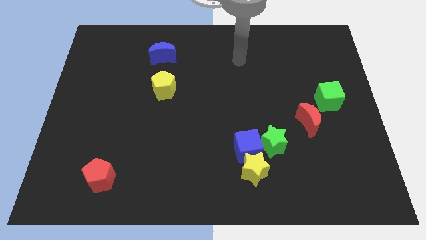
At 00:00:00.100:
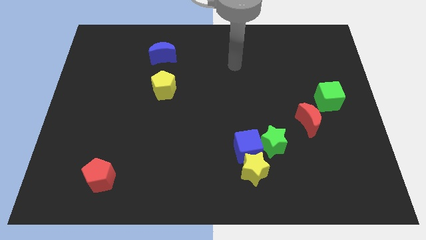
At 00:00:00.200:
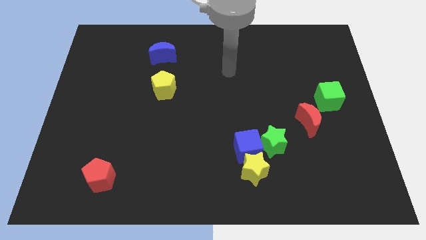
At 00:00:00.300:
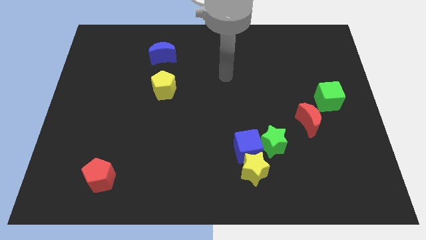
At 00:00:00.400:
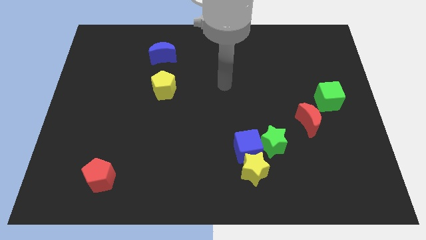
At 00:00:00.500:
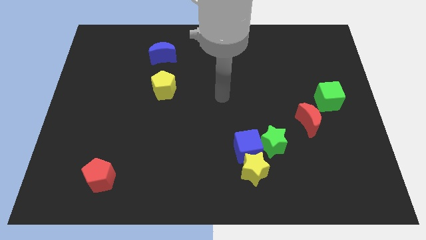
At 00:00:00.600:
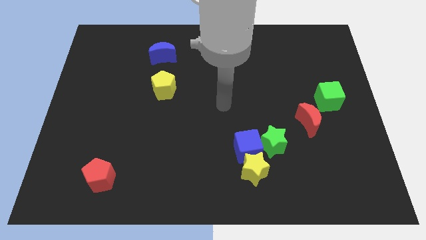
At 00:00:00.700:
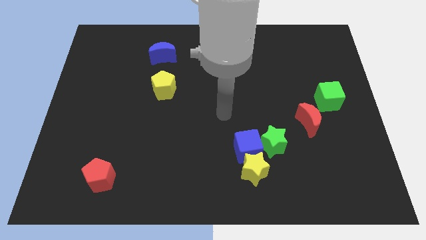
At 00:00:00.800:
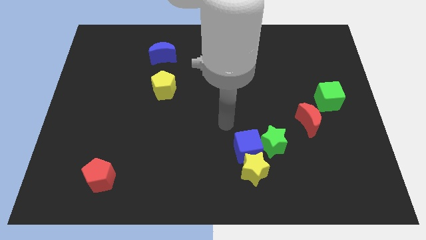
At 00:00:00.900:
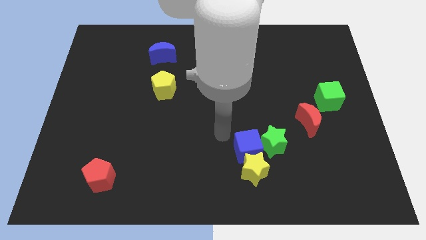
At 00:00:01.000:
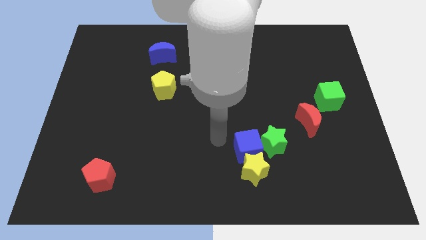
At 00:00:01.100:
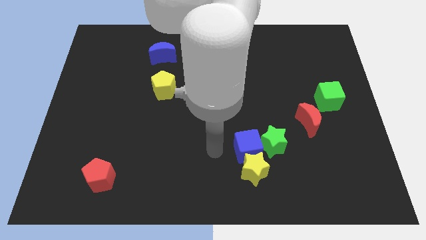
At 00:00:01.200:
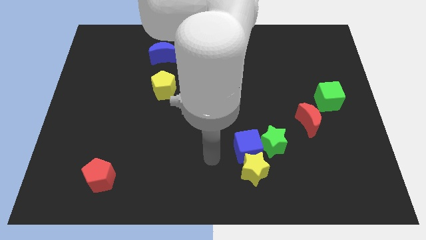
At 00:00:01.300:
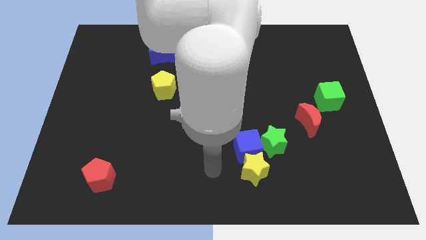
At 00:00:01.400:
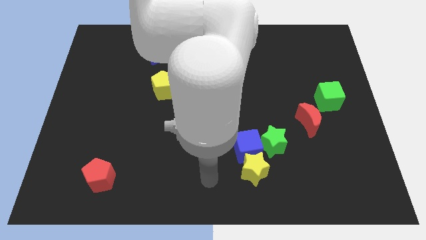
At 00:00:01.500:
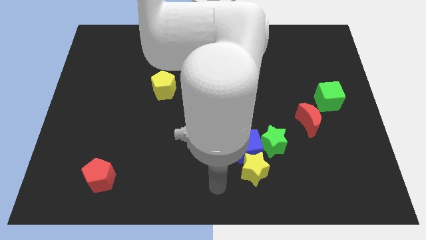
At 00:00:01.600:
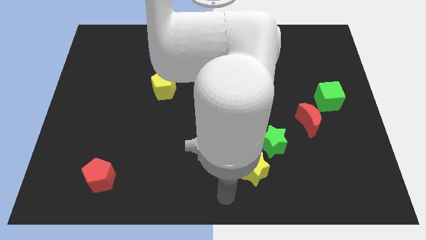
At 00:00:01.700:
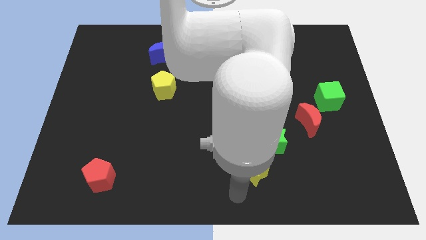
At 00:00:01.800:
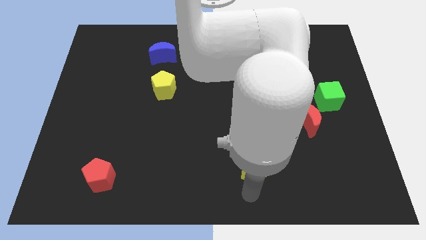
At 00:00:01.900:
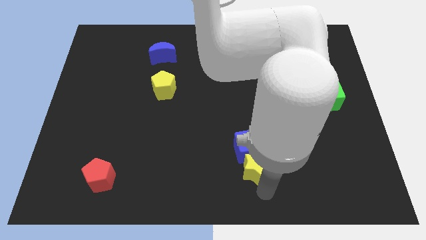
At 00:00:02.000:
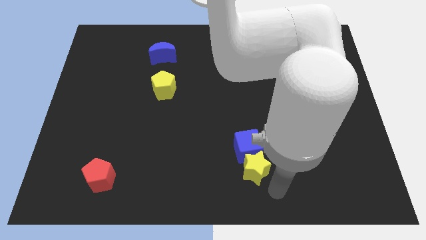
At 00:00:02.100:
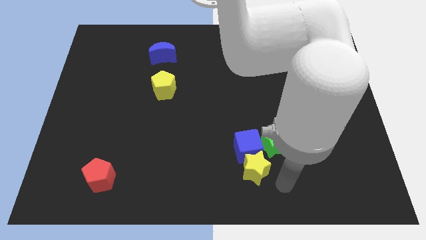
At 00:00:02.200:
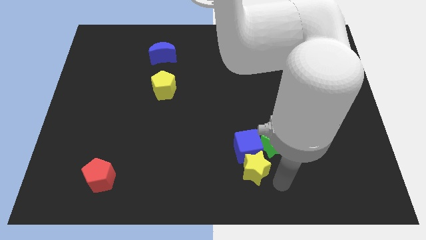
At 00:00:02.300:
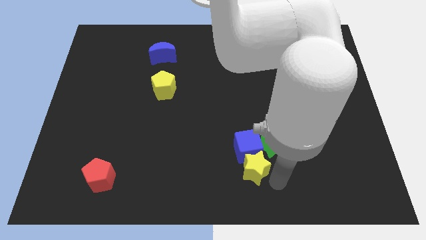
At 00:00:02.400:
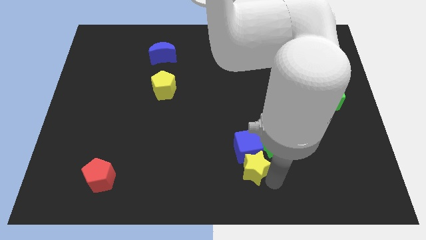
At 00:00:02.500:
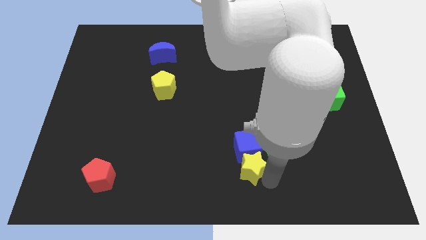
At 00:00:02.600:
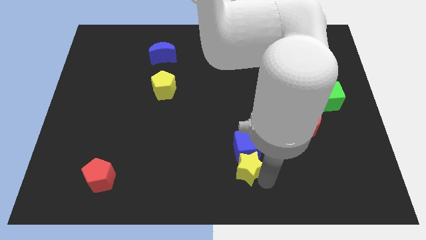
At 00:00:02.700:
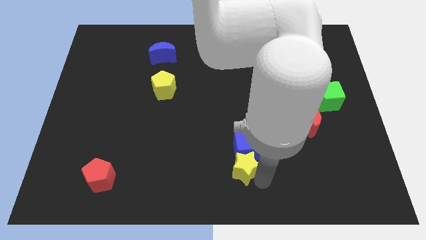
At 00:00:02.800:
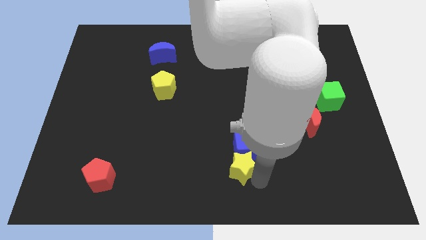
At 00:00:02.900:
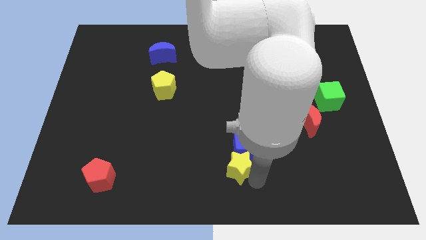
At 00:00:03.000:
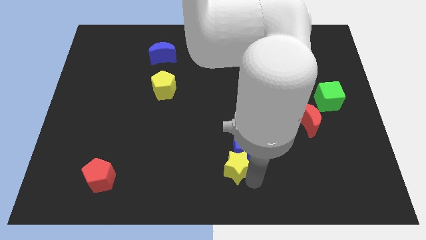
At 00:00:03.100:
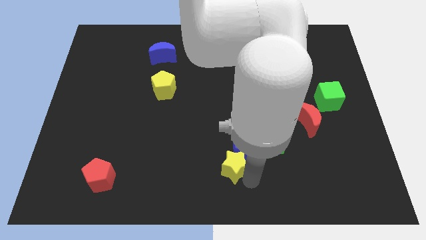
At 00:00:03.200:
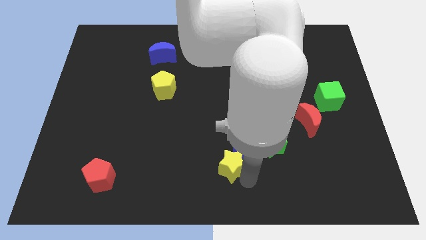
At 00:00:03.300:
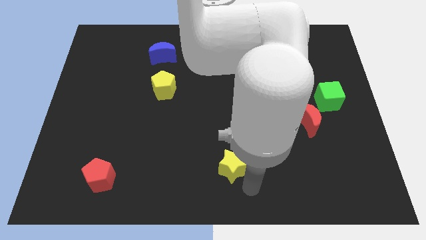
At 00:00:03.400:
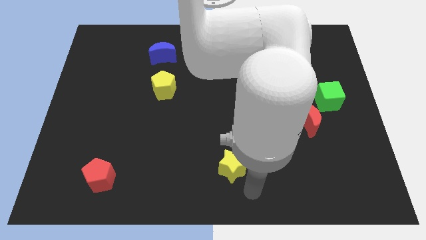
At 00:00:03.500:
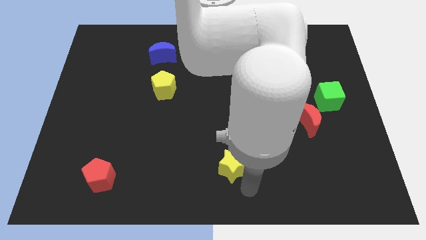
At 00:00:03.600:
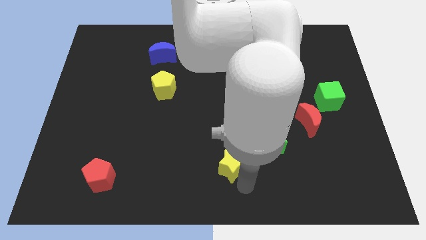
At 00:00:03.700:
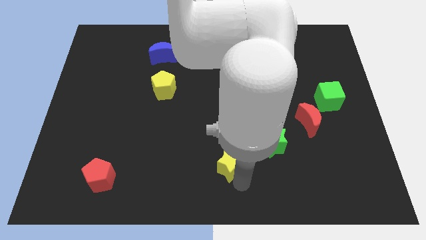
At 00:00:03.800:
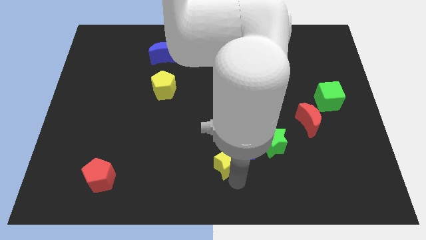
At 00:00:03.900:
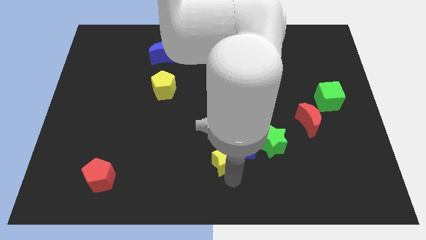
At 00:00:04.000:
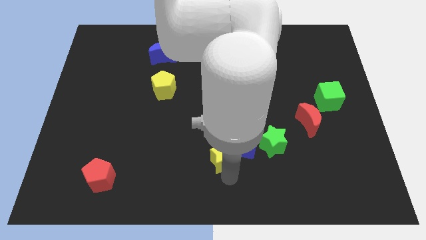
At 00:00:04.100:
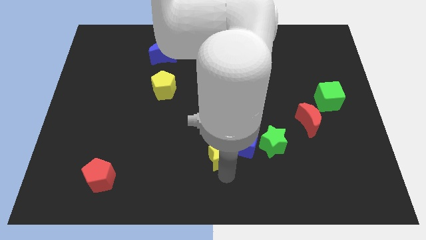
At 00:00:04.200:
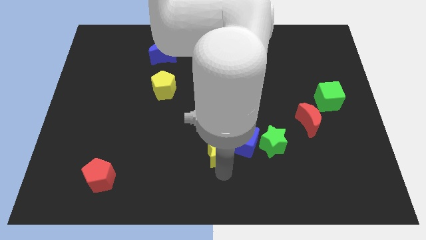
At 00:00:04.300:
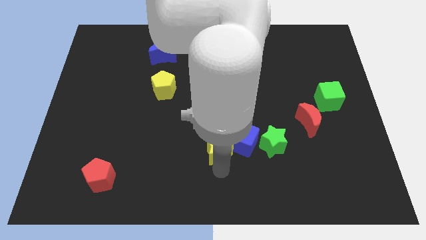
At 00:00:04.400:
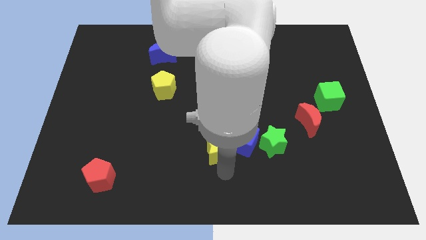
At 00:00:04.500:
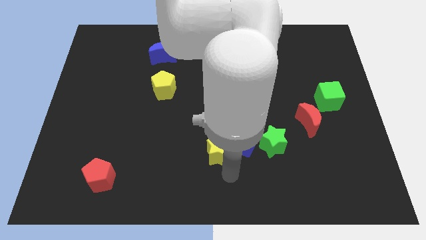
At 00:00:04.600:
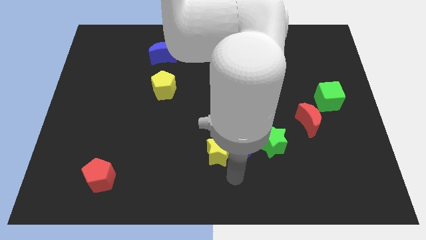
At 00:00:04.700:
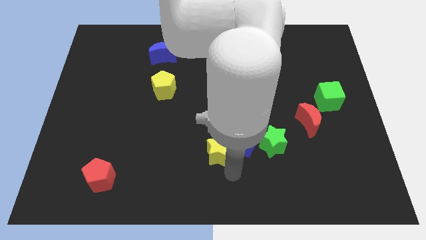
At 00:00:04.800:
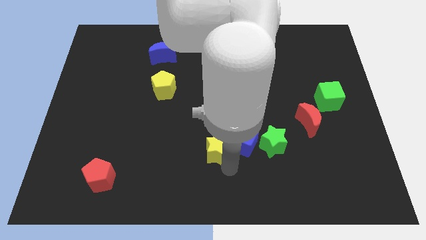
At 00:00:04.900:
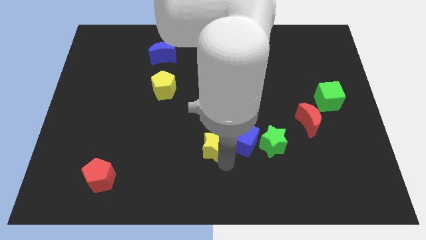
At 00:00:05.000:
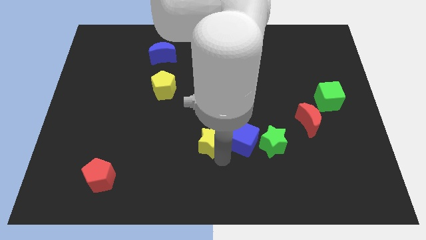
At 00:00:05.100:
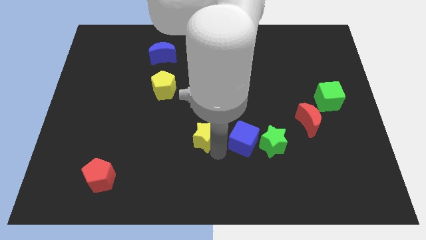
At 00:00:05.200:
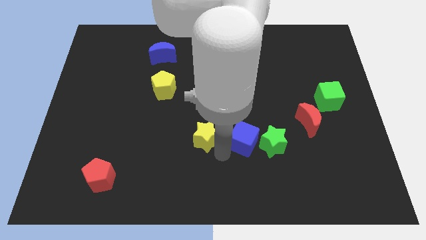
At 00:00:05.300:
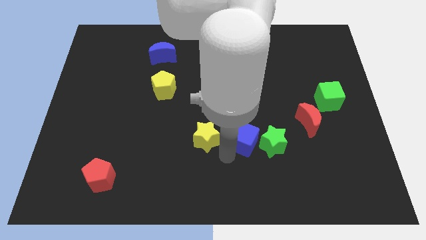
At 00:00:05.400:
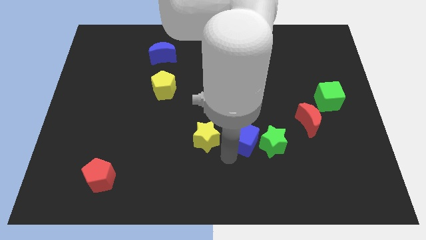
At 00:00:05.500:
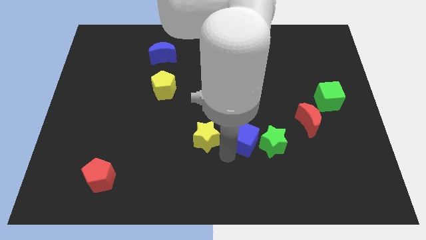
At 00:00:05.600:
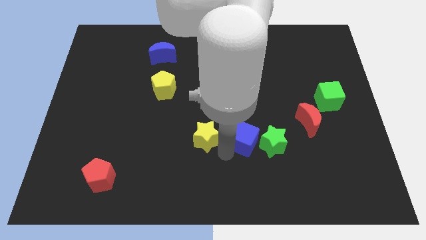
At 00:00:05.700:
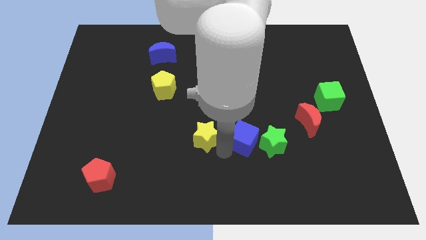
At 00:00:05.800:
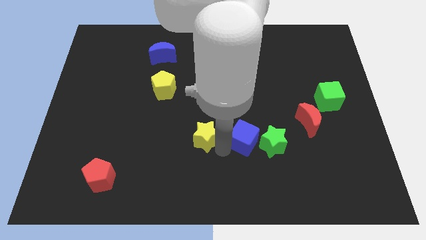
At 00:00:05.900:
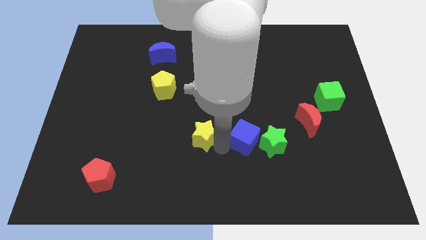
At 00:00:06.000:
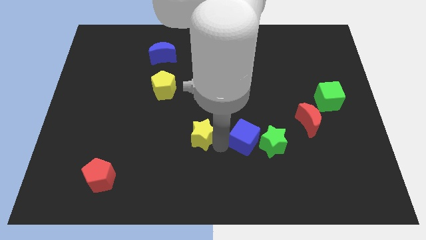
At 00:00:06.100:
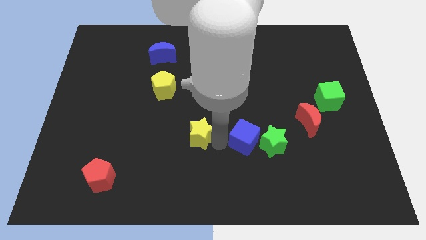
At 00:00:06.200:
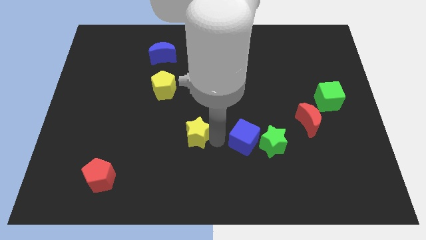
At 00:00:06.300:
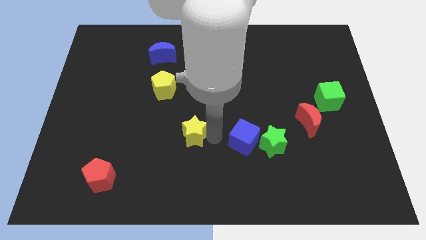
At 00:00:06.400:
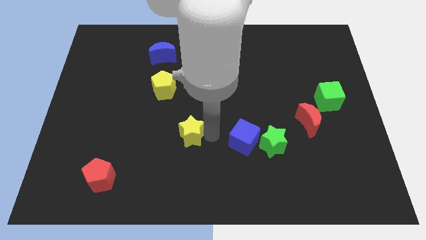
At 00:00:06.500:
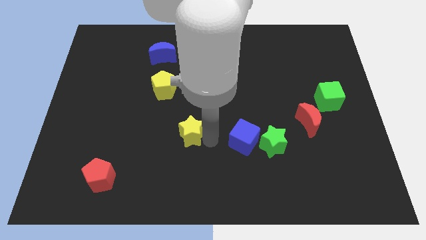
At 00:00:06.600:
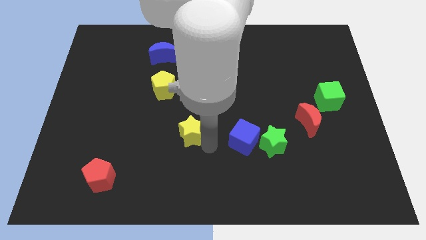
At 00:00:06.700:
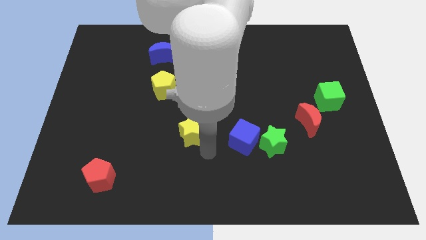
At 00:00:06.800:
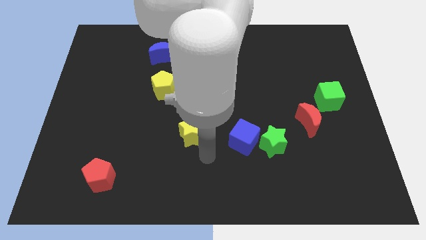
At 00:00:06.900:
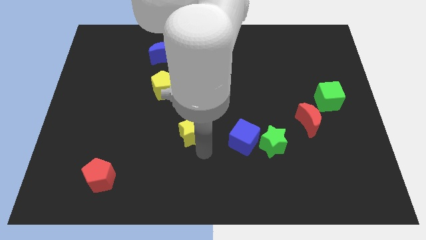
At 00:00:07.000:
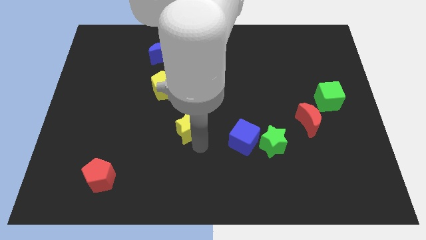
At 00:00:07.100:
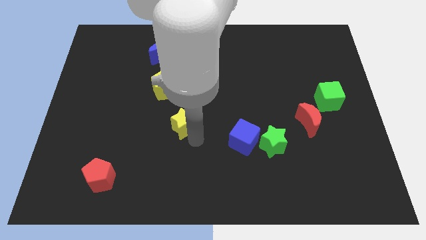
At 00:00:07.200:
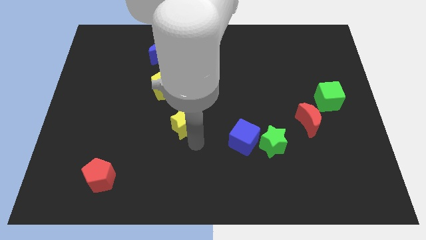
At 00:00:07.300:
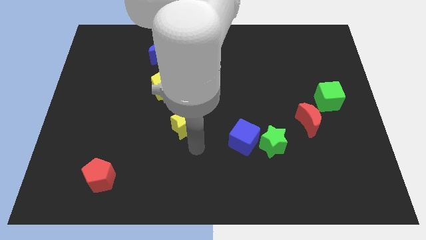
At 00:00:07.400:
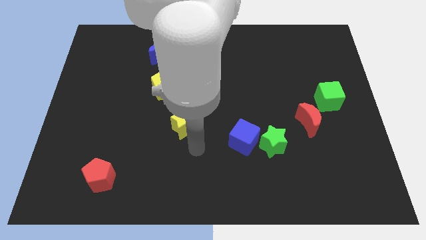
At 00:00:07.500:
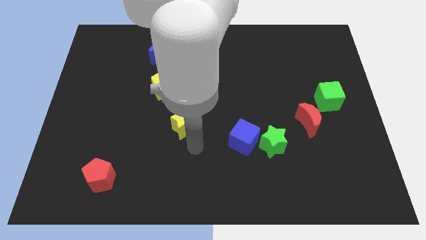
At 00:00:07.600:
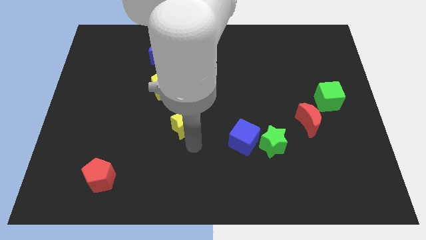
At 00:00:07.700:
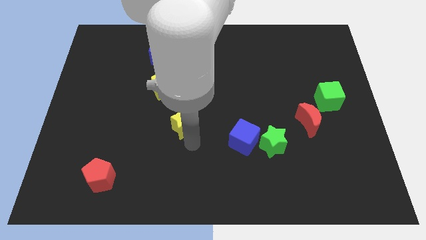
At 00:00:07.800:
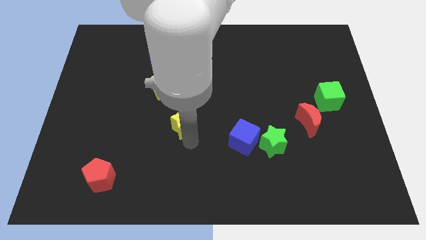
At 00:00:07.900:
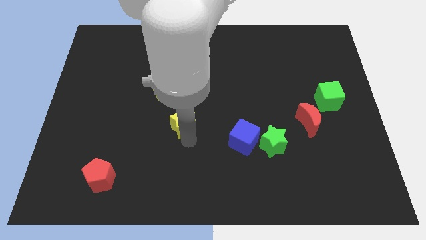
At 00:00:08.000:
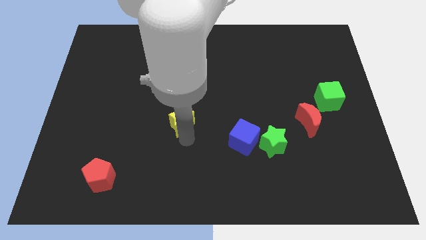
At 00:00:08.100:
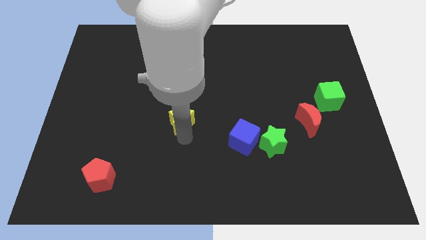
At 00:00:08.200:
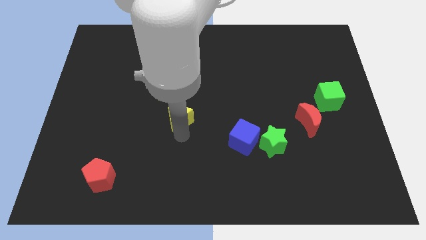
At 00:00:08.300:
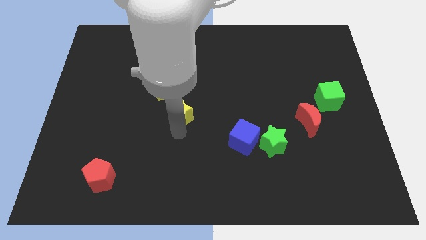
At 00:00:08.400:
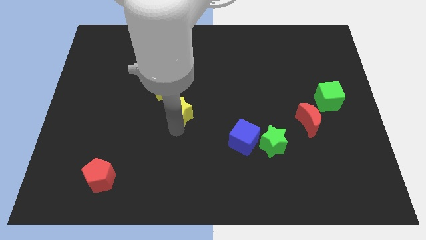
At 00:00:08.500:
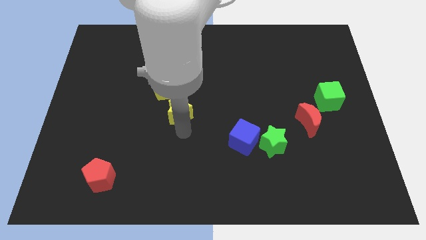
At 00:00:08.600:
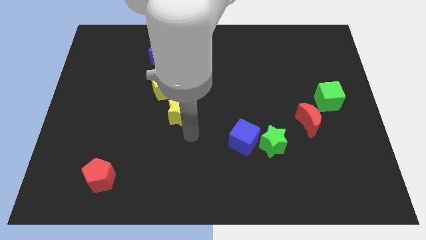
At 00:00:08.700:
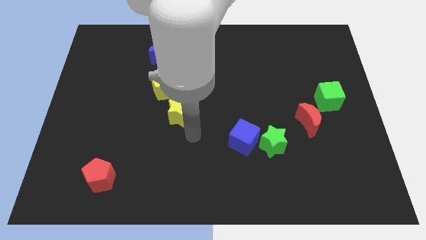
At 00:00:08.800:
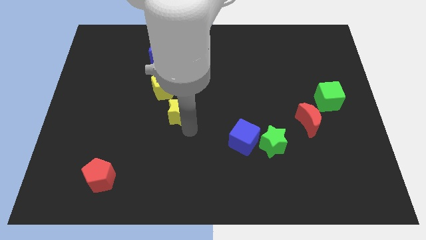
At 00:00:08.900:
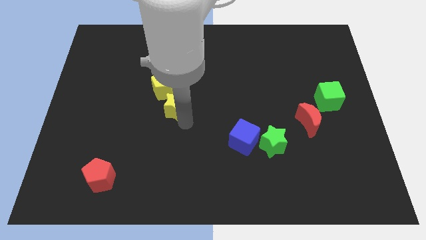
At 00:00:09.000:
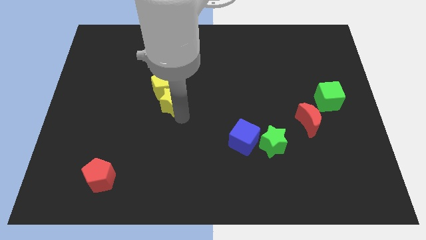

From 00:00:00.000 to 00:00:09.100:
slide the yellow star next to the yellow pentagon
